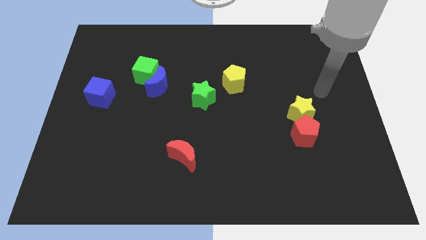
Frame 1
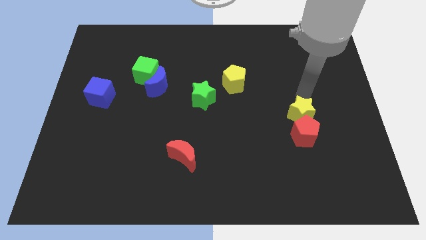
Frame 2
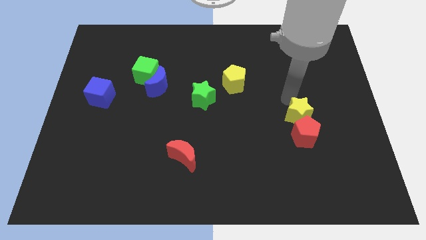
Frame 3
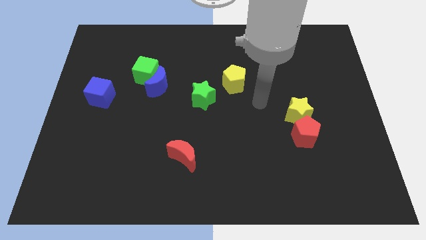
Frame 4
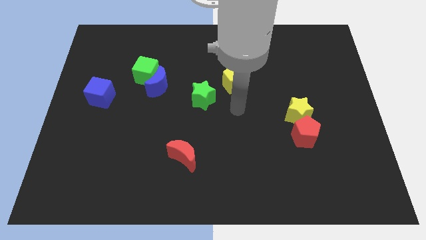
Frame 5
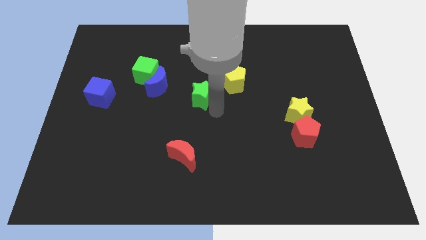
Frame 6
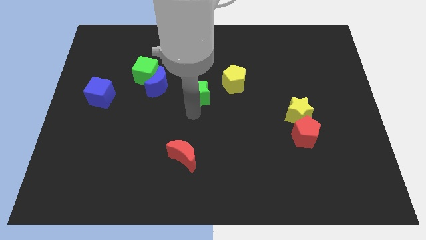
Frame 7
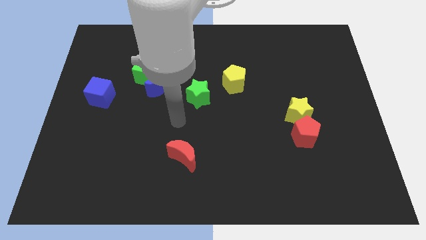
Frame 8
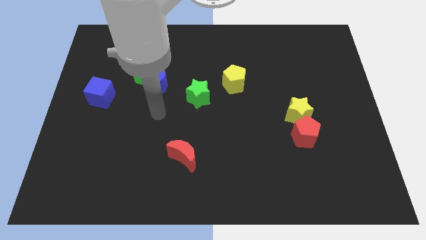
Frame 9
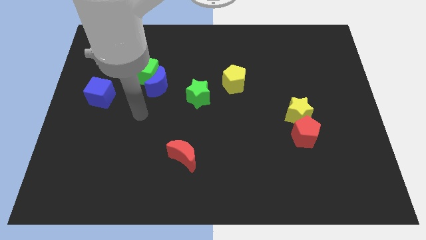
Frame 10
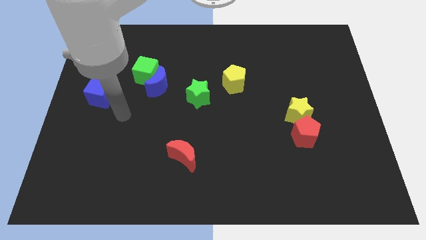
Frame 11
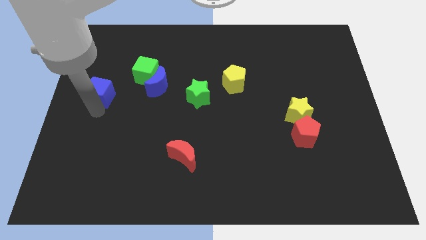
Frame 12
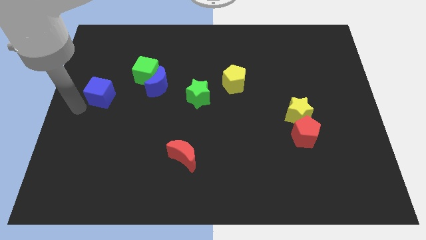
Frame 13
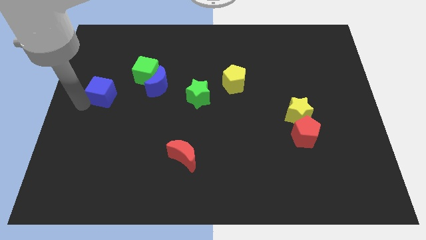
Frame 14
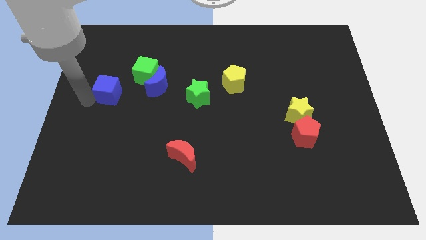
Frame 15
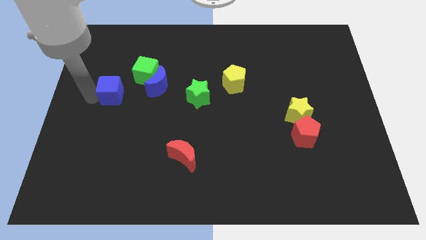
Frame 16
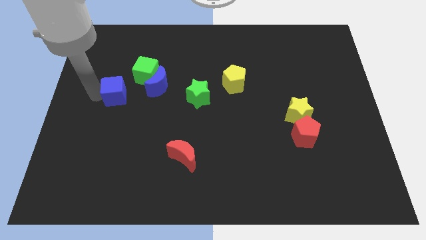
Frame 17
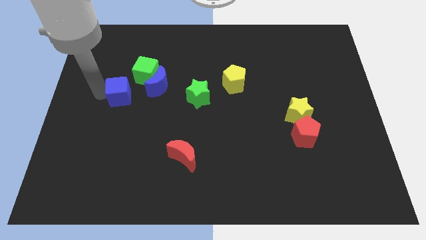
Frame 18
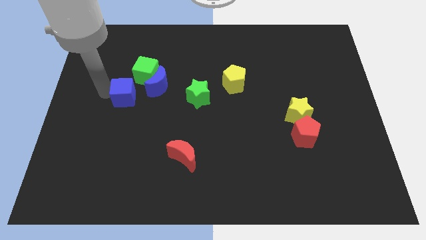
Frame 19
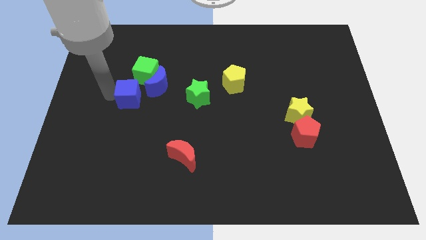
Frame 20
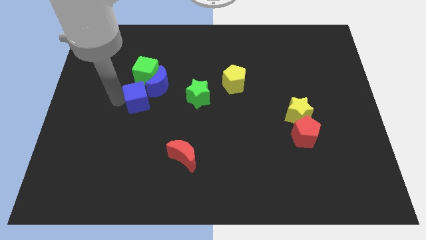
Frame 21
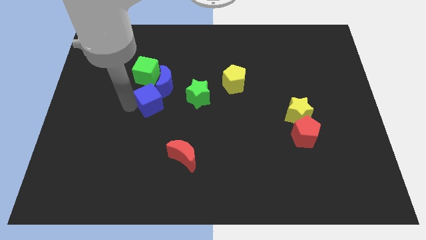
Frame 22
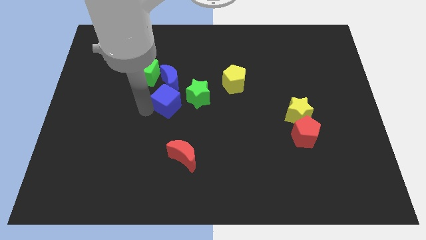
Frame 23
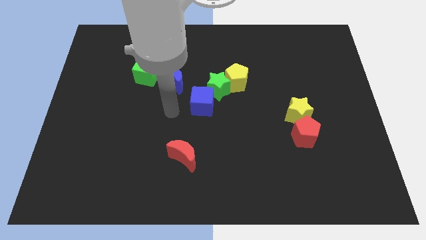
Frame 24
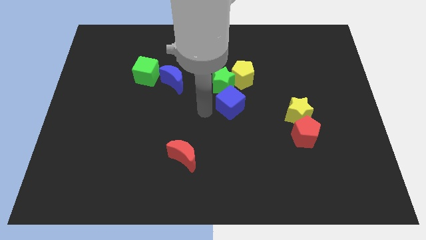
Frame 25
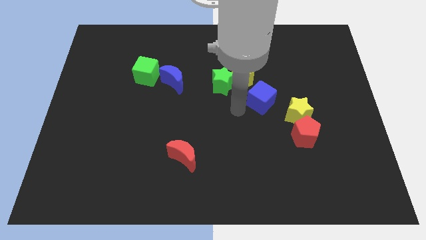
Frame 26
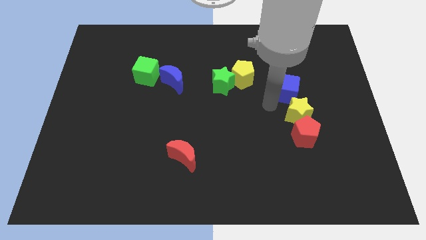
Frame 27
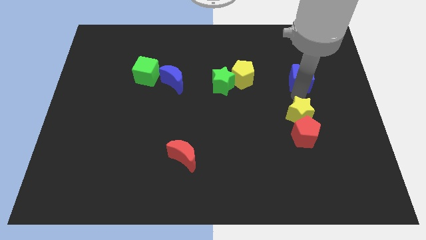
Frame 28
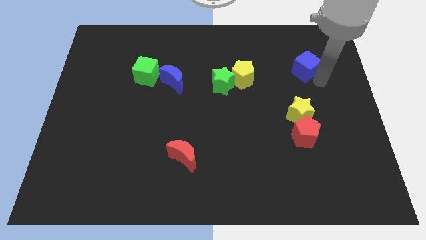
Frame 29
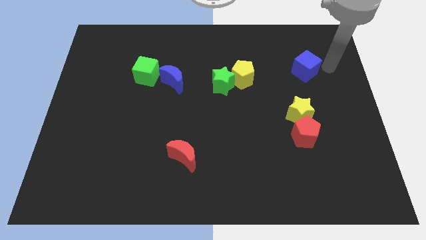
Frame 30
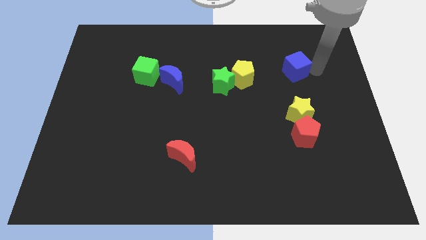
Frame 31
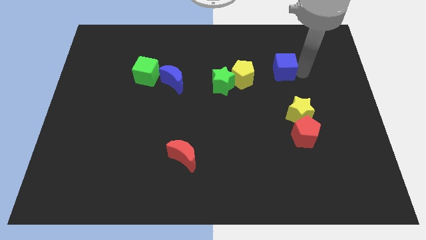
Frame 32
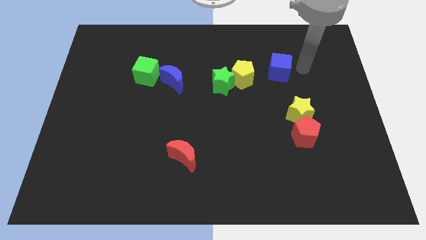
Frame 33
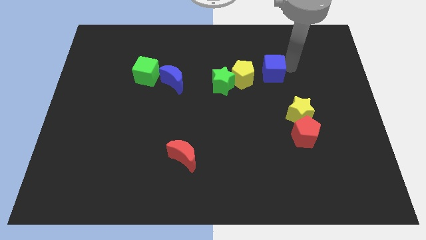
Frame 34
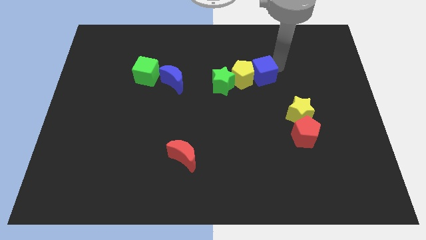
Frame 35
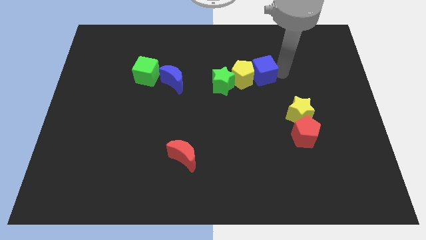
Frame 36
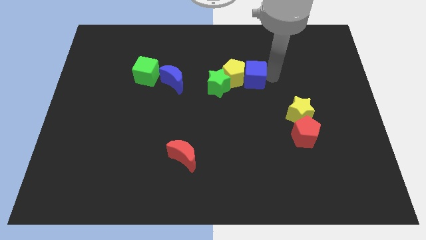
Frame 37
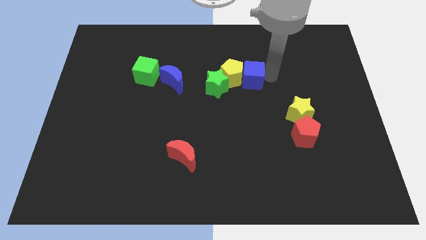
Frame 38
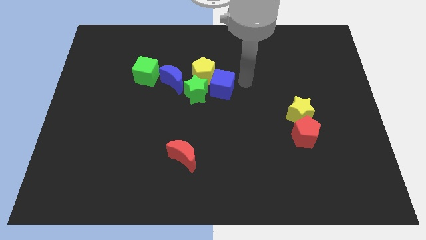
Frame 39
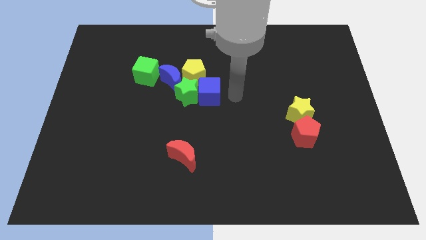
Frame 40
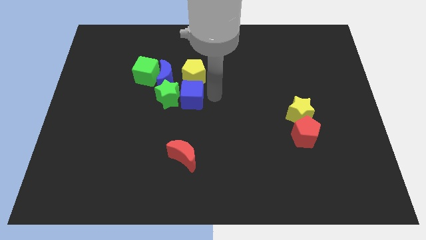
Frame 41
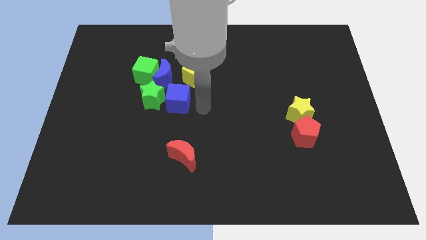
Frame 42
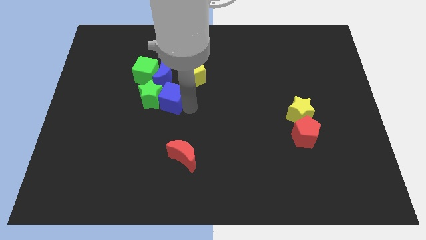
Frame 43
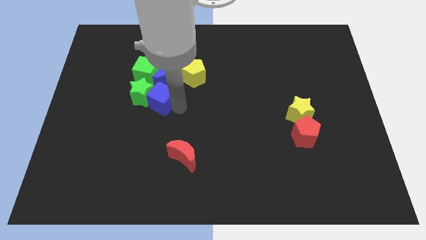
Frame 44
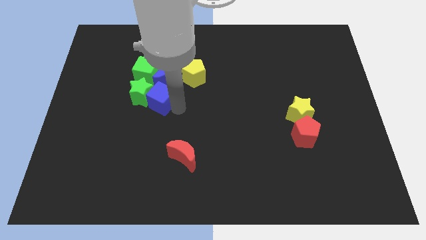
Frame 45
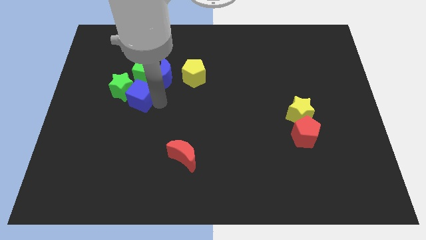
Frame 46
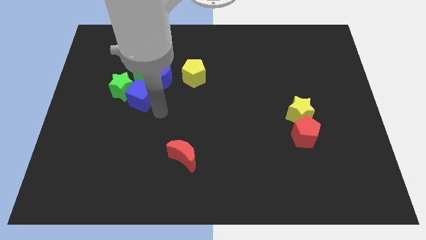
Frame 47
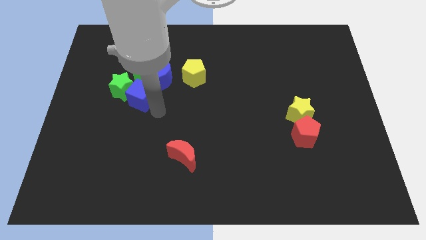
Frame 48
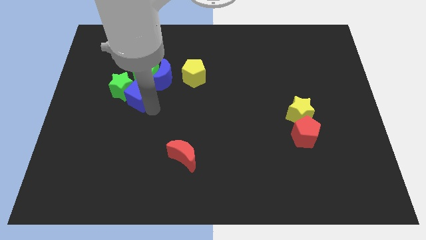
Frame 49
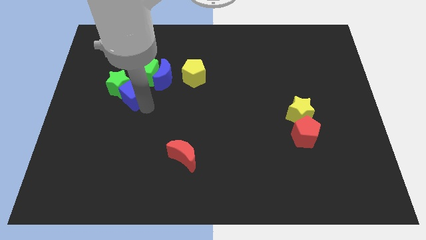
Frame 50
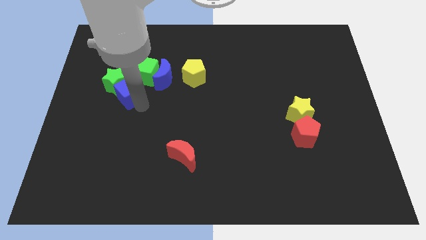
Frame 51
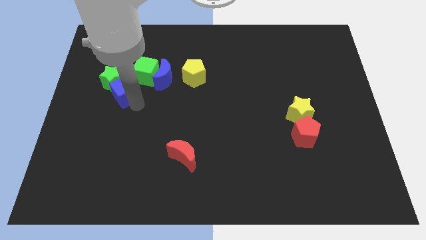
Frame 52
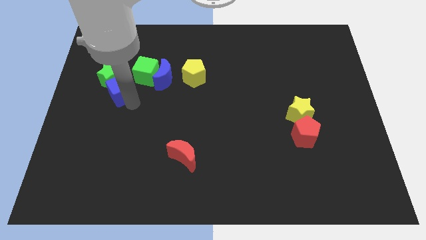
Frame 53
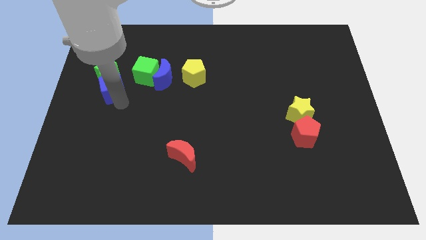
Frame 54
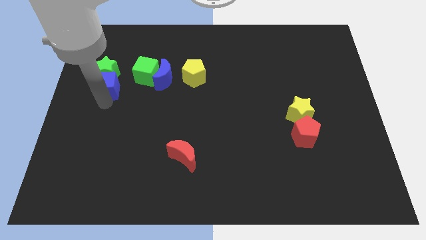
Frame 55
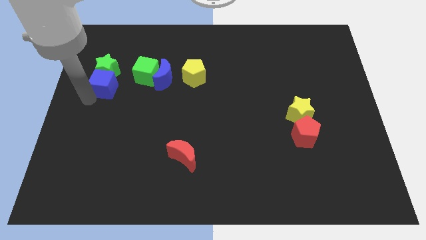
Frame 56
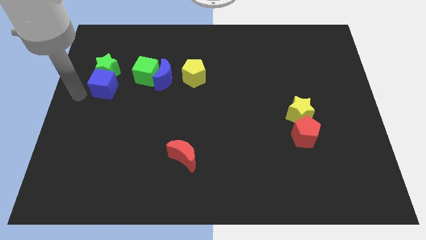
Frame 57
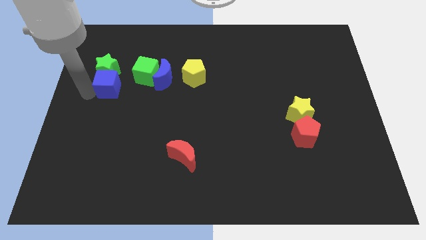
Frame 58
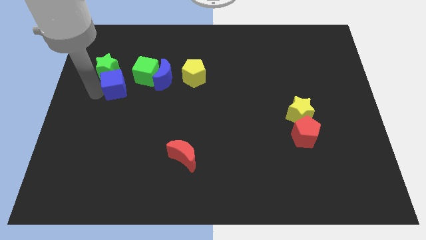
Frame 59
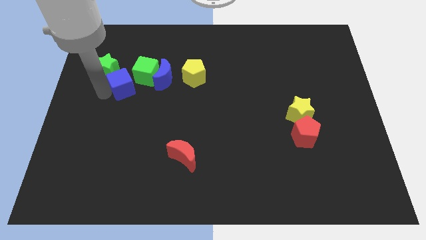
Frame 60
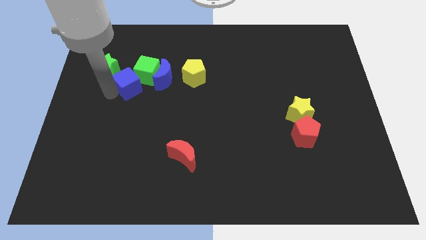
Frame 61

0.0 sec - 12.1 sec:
push the blue cube close to the green cube

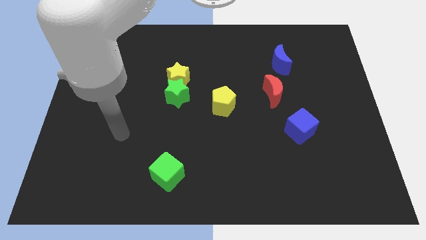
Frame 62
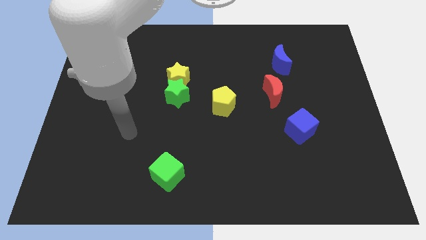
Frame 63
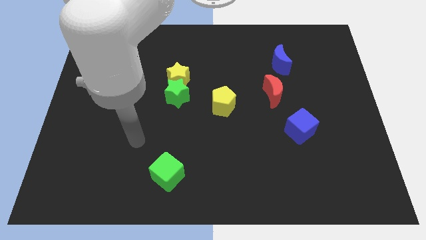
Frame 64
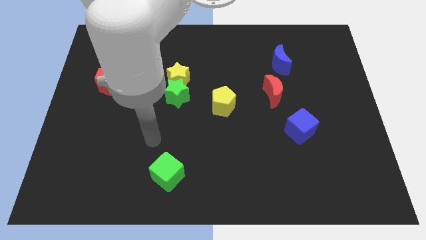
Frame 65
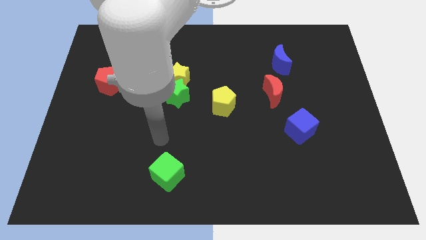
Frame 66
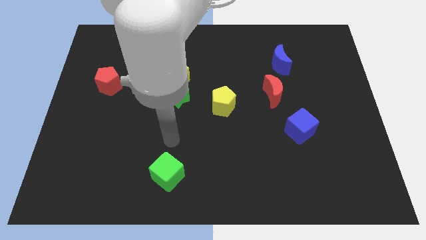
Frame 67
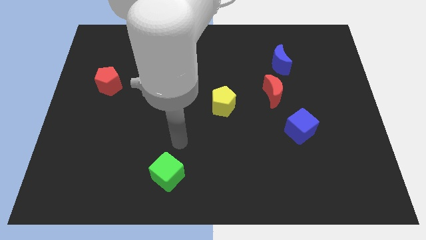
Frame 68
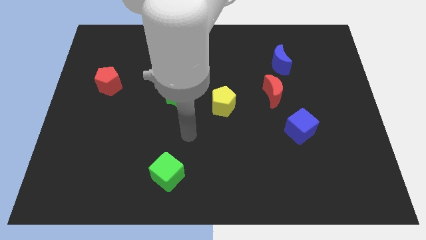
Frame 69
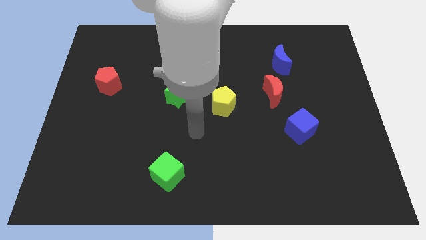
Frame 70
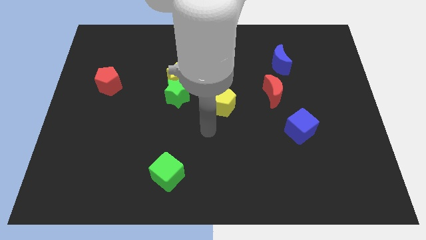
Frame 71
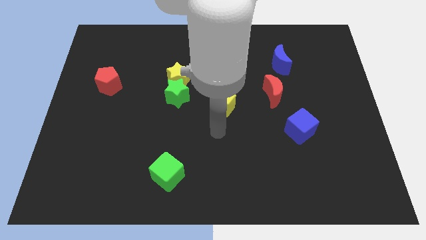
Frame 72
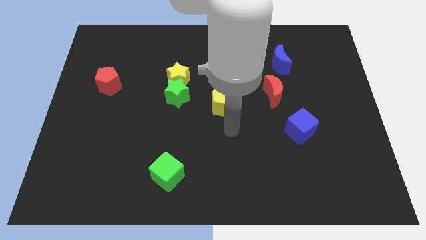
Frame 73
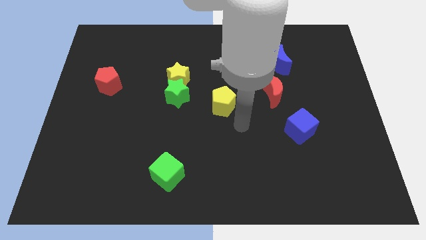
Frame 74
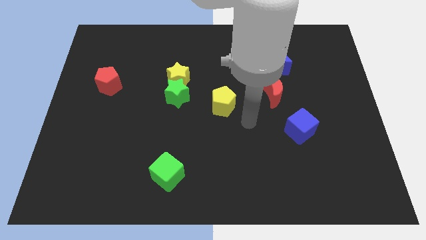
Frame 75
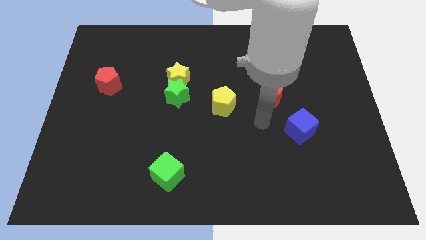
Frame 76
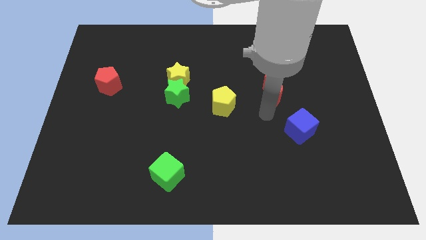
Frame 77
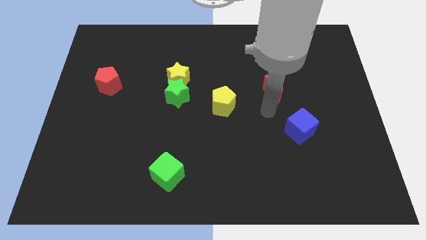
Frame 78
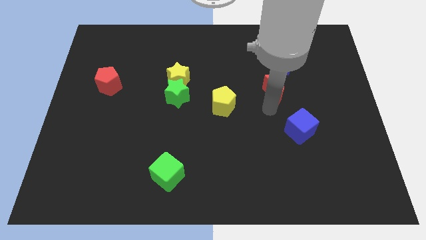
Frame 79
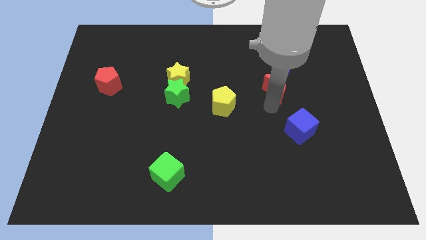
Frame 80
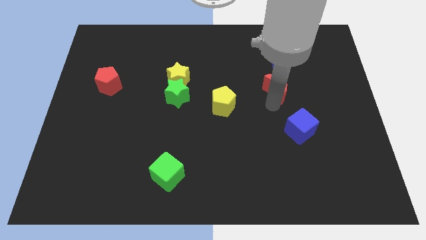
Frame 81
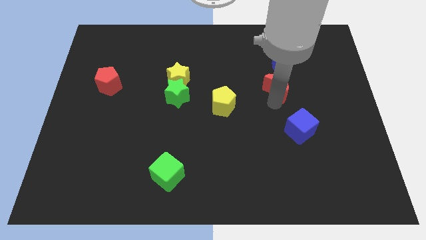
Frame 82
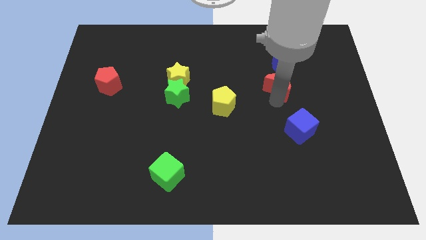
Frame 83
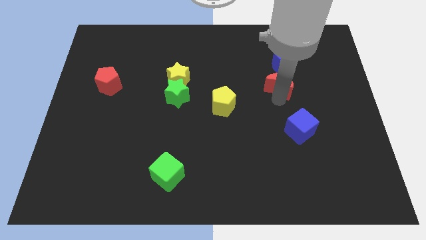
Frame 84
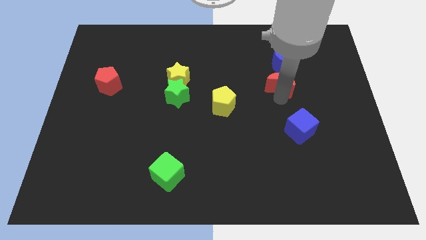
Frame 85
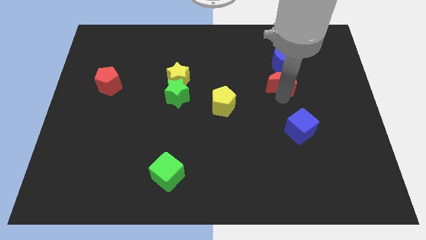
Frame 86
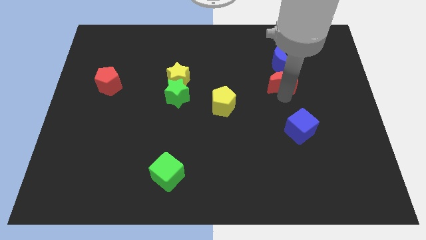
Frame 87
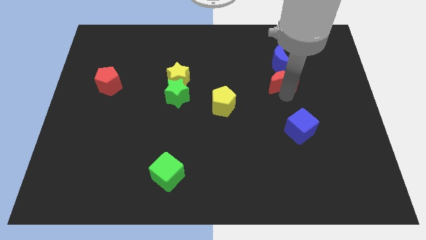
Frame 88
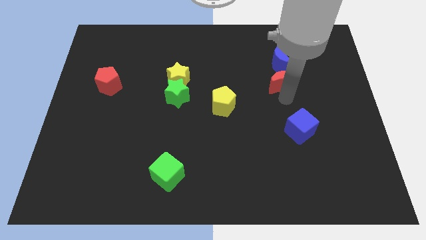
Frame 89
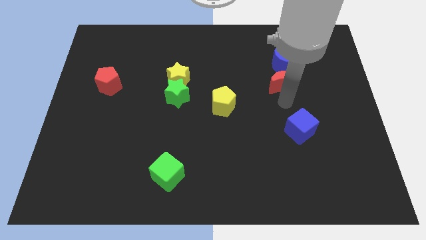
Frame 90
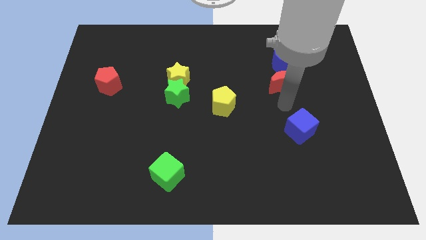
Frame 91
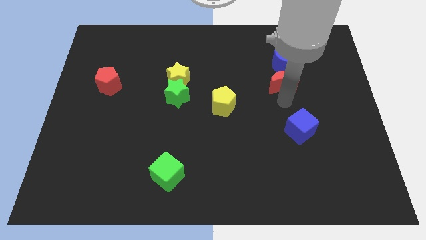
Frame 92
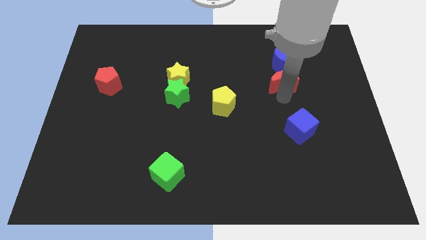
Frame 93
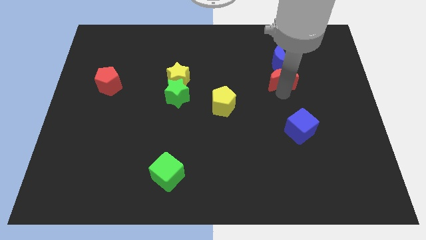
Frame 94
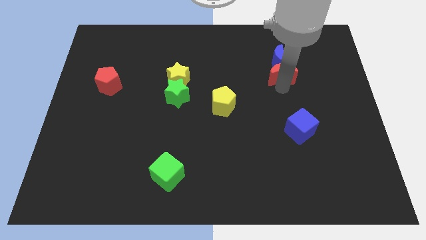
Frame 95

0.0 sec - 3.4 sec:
move the red moon close to the blue moon
